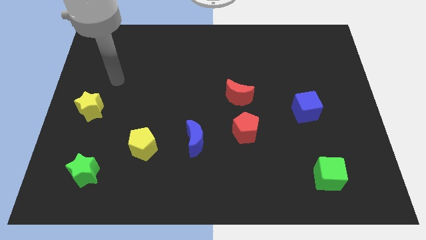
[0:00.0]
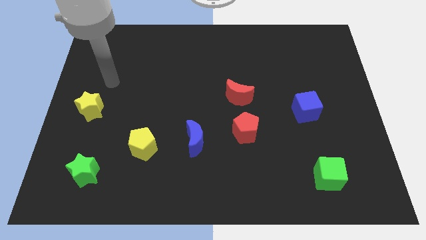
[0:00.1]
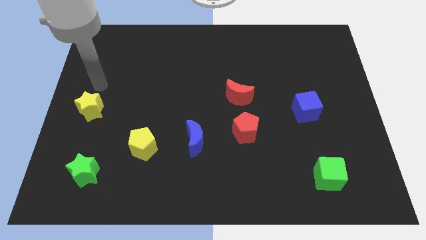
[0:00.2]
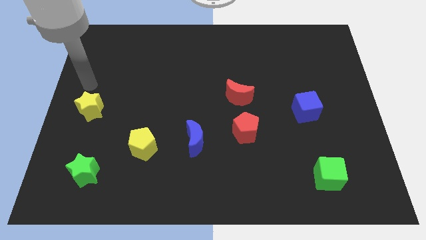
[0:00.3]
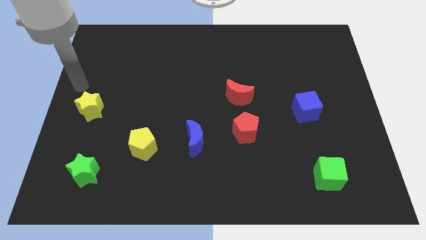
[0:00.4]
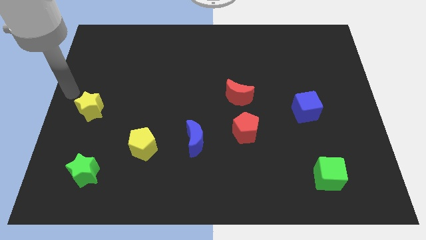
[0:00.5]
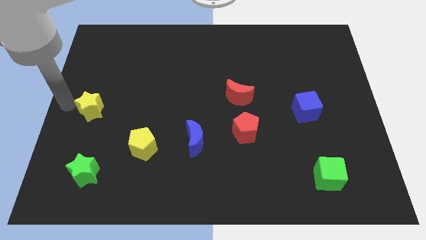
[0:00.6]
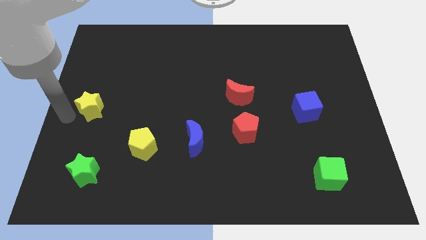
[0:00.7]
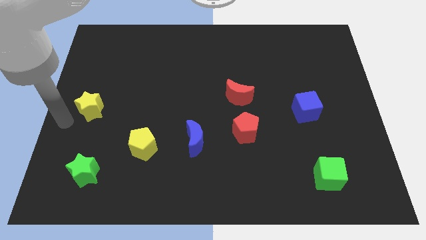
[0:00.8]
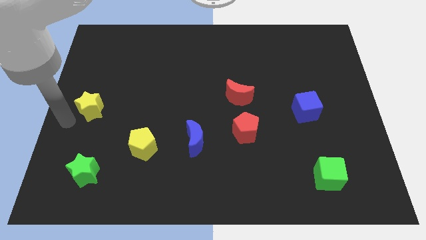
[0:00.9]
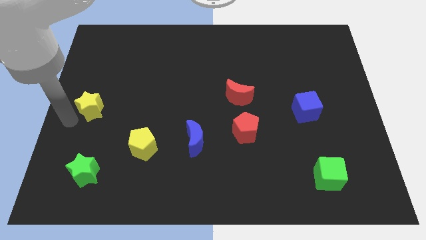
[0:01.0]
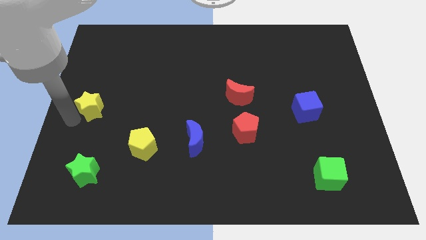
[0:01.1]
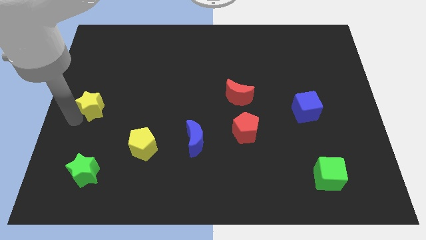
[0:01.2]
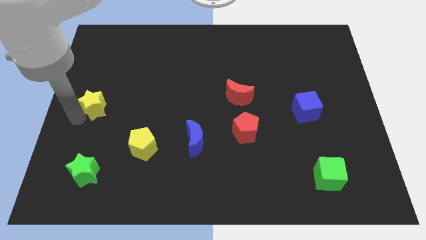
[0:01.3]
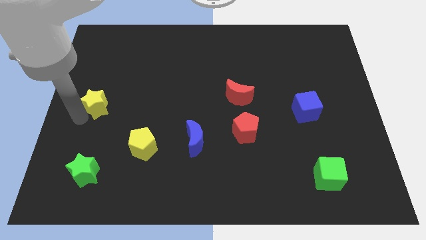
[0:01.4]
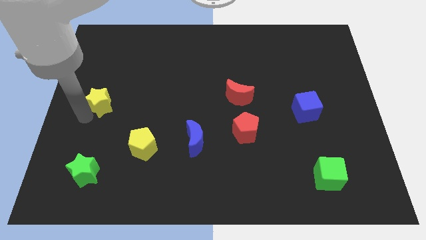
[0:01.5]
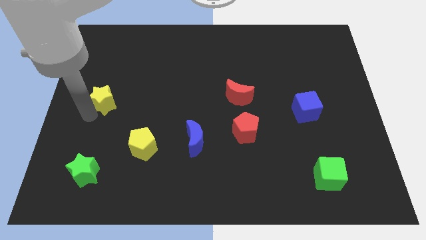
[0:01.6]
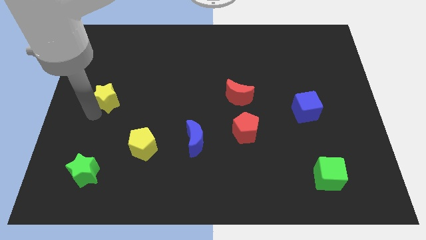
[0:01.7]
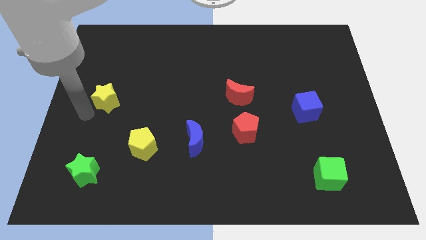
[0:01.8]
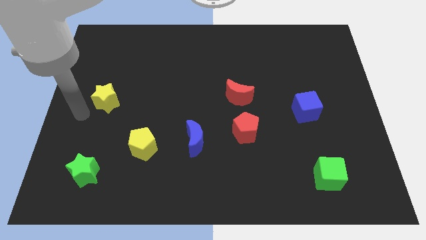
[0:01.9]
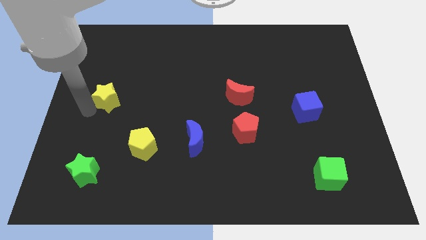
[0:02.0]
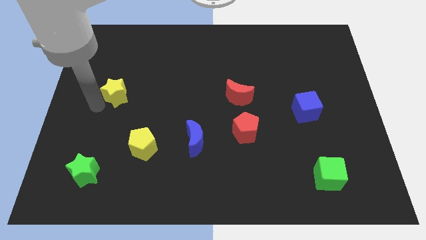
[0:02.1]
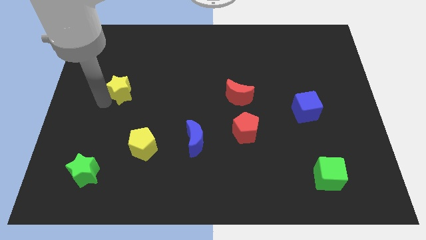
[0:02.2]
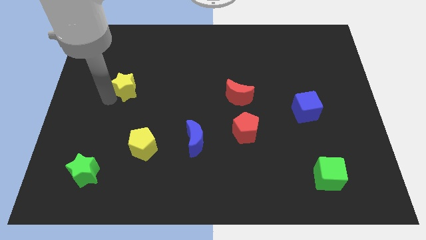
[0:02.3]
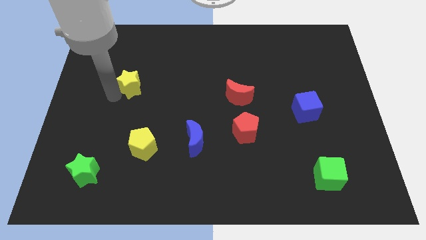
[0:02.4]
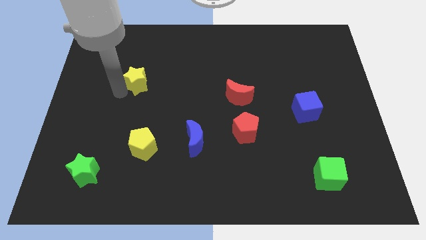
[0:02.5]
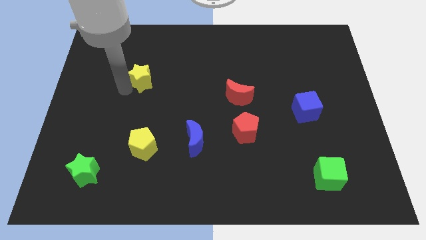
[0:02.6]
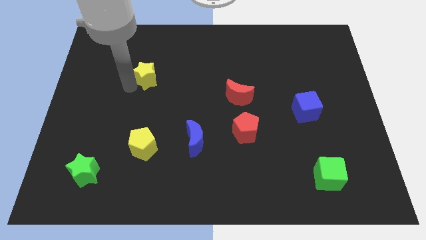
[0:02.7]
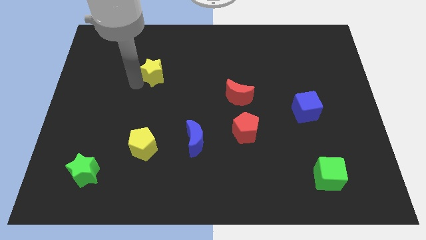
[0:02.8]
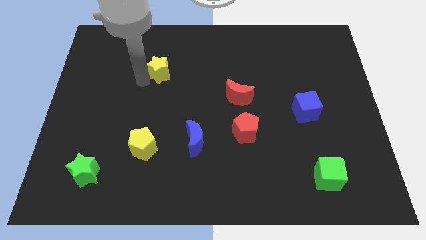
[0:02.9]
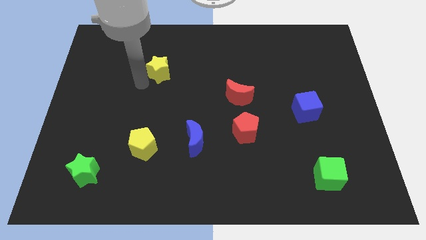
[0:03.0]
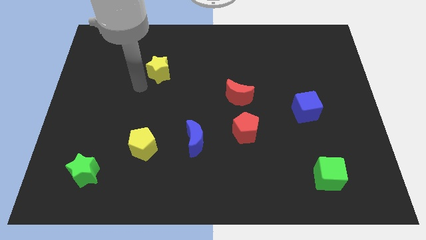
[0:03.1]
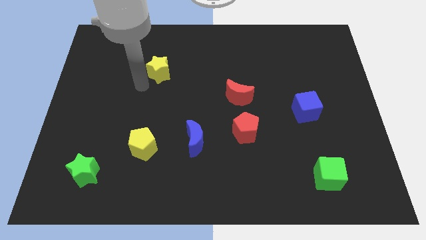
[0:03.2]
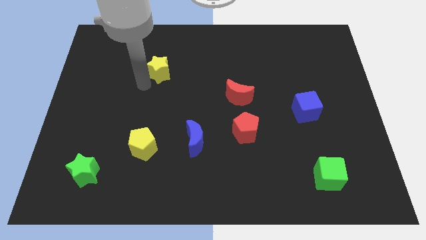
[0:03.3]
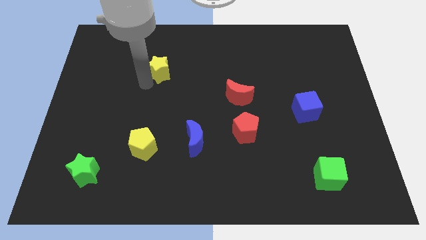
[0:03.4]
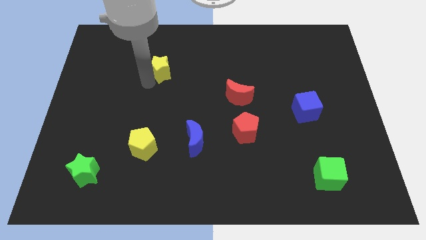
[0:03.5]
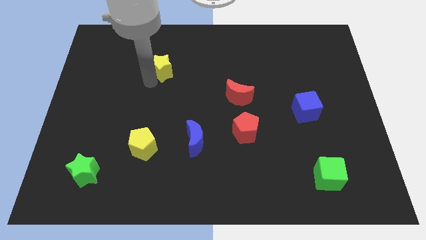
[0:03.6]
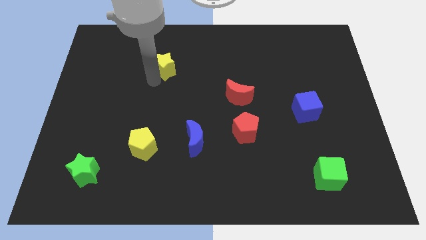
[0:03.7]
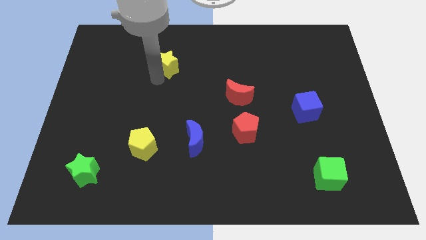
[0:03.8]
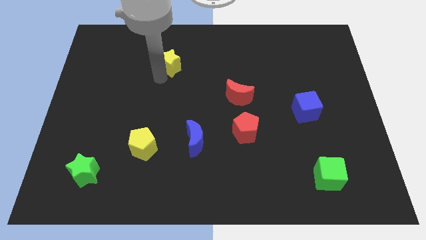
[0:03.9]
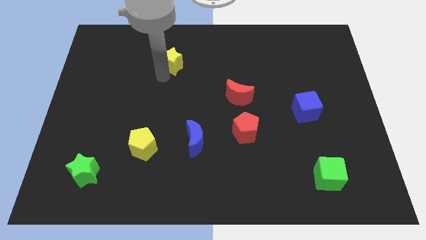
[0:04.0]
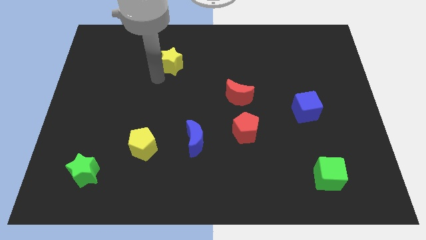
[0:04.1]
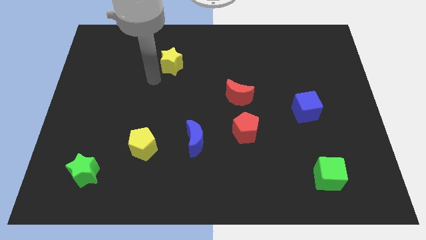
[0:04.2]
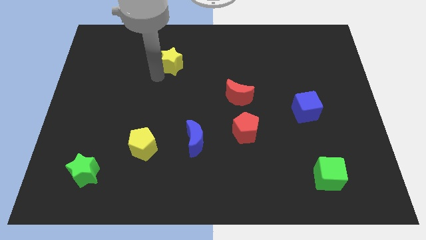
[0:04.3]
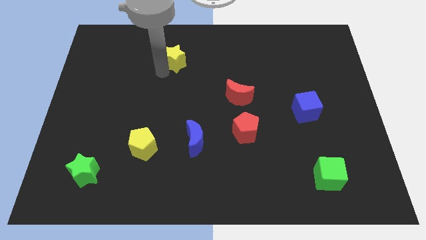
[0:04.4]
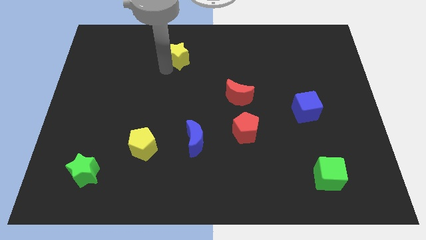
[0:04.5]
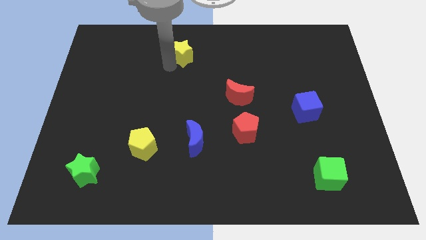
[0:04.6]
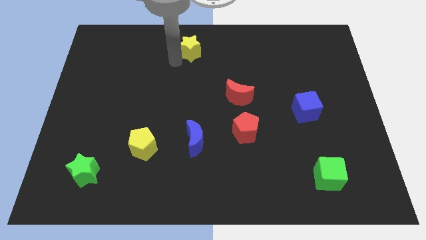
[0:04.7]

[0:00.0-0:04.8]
slide the yellow star to the towards your base

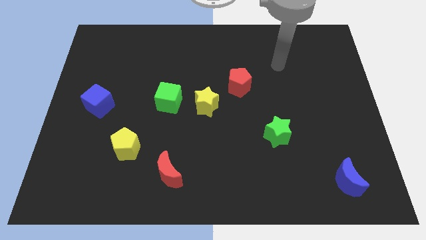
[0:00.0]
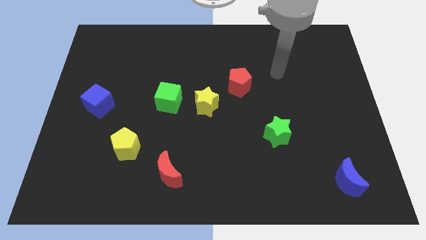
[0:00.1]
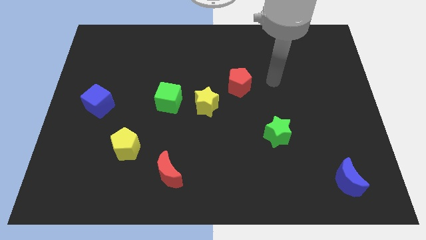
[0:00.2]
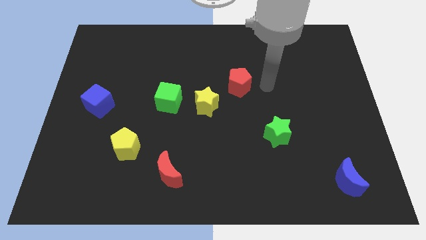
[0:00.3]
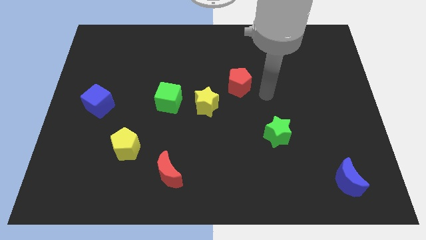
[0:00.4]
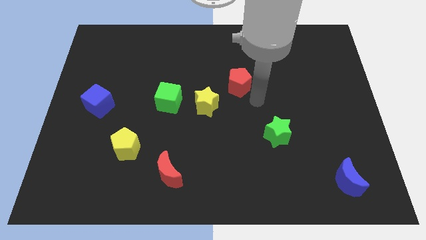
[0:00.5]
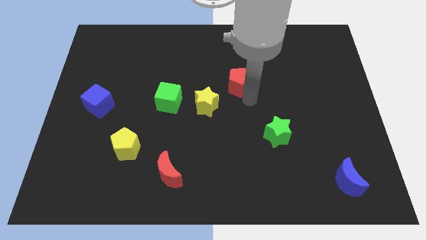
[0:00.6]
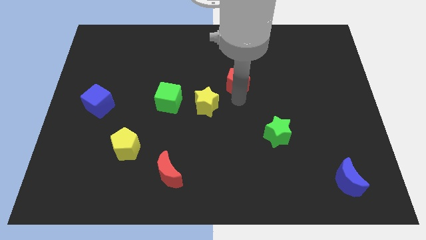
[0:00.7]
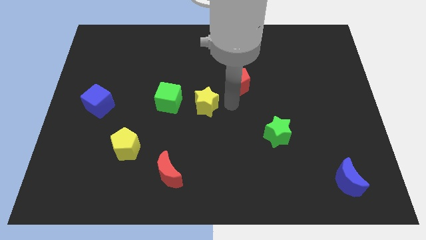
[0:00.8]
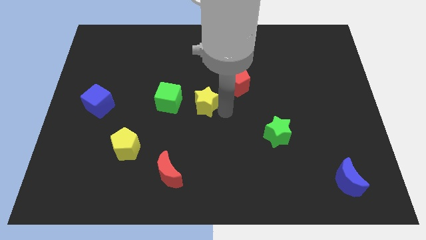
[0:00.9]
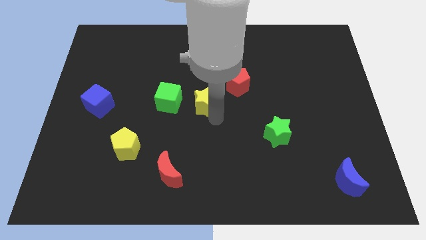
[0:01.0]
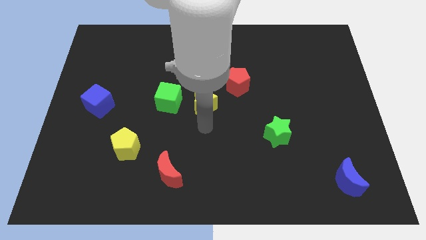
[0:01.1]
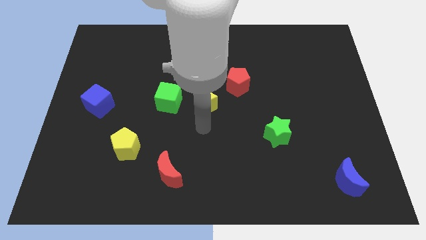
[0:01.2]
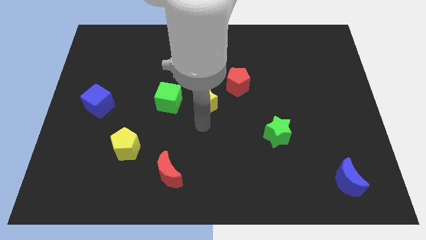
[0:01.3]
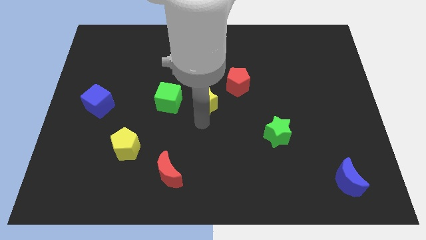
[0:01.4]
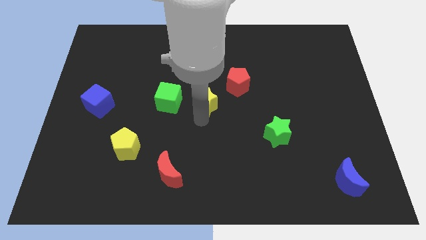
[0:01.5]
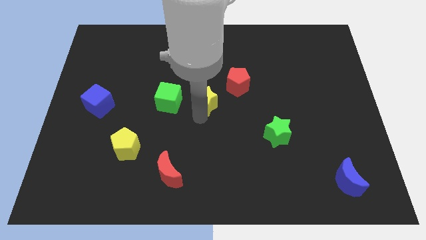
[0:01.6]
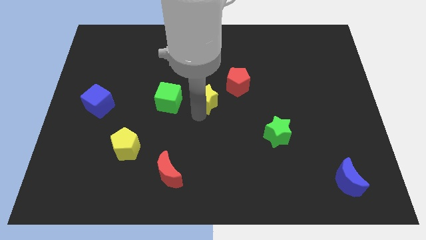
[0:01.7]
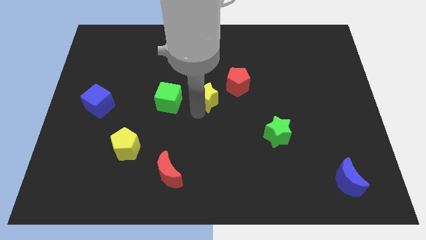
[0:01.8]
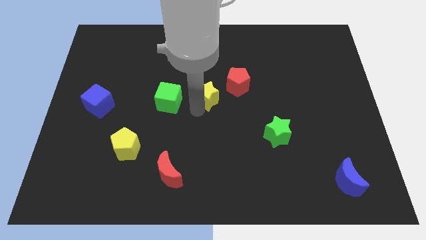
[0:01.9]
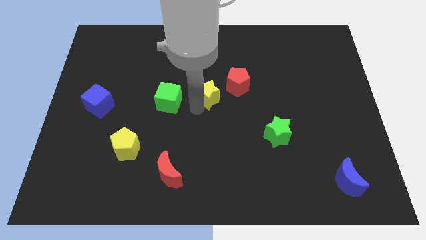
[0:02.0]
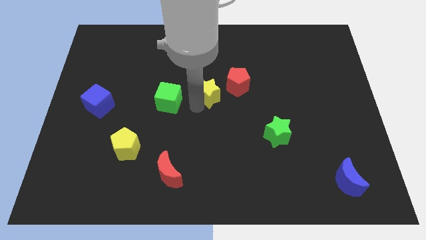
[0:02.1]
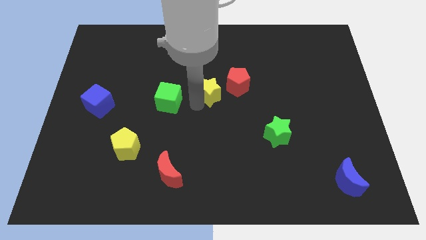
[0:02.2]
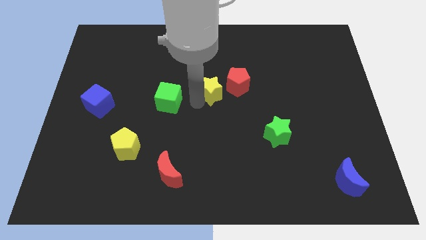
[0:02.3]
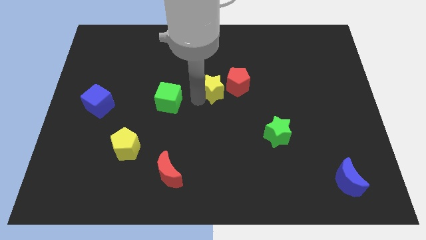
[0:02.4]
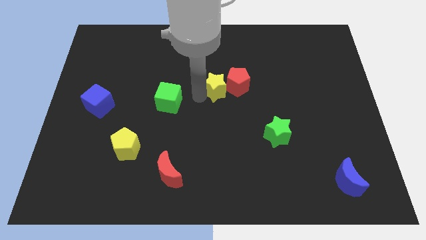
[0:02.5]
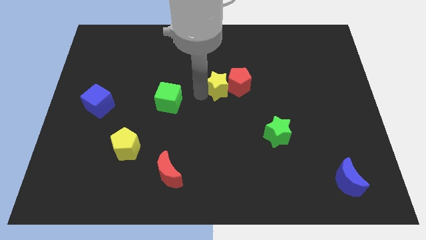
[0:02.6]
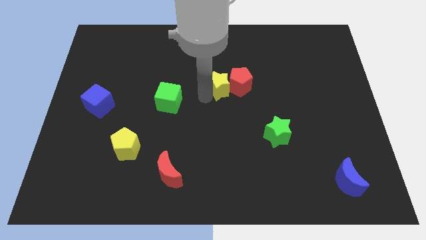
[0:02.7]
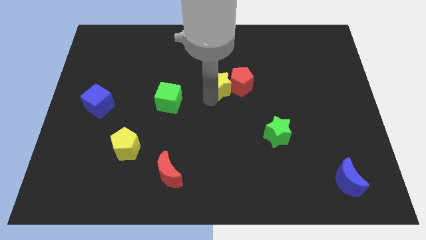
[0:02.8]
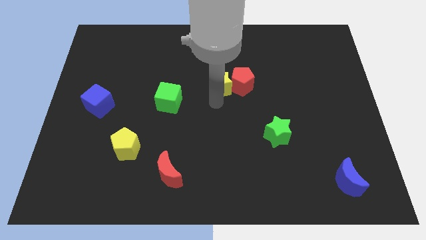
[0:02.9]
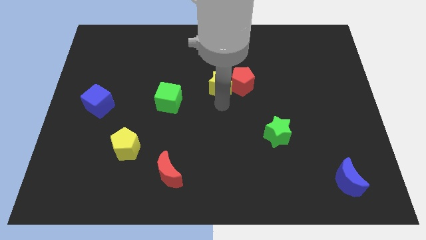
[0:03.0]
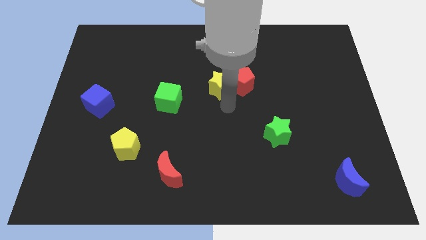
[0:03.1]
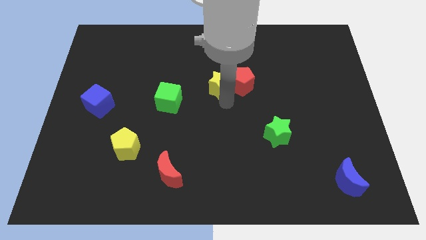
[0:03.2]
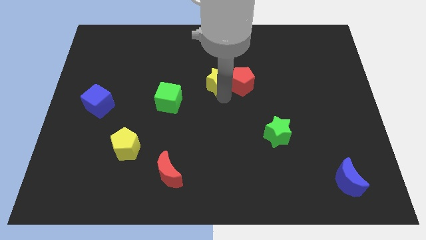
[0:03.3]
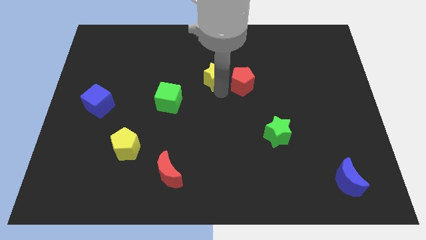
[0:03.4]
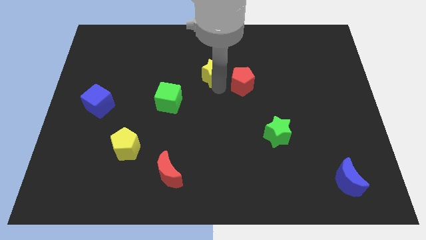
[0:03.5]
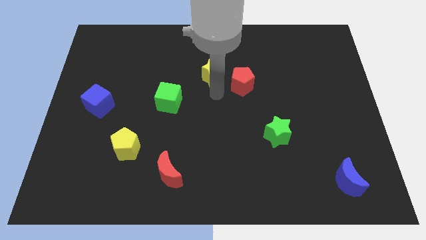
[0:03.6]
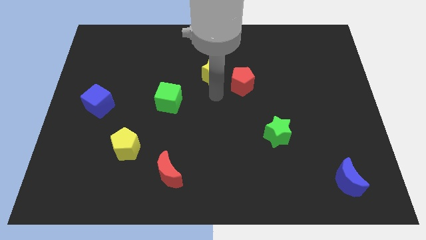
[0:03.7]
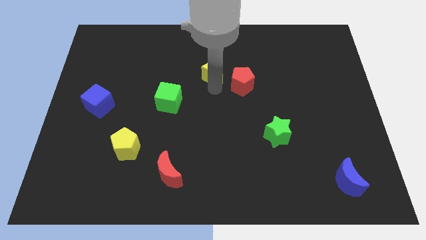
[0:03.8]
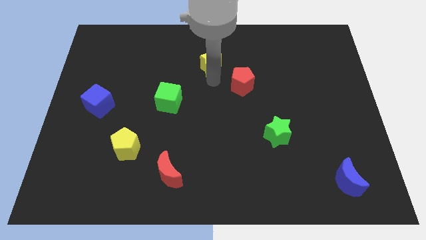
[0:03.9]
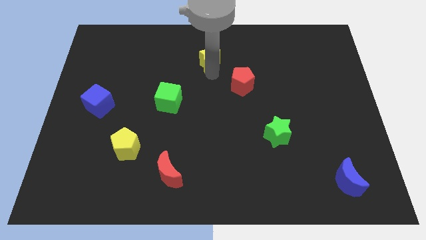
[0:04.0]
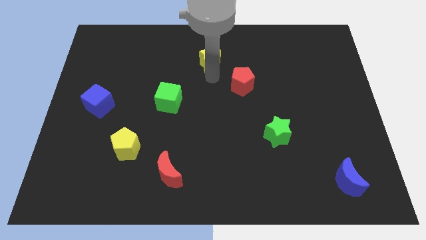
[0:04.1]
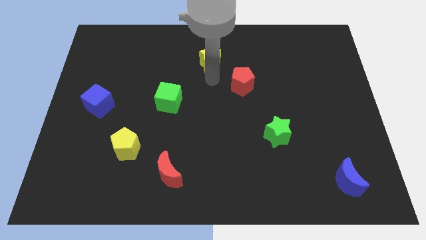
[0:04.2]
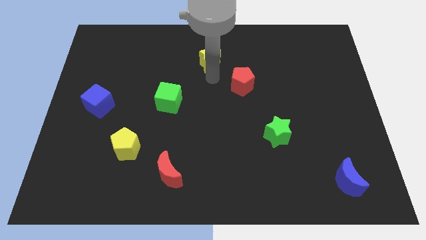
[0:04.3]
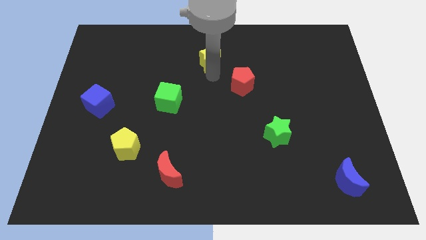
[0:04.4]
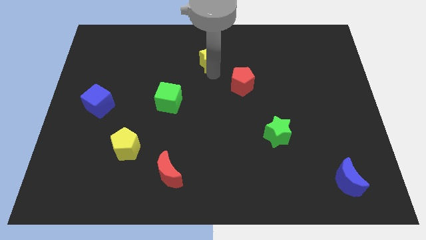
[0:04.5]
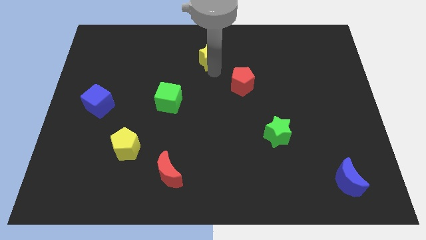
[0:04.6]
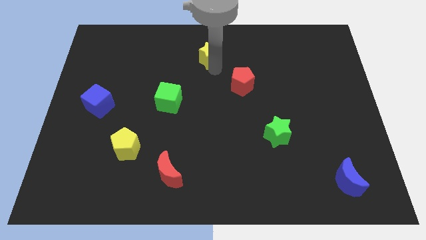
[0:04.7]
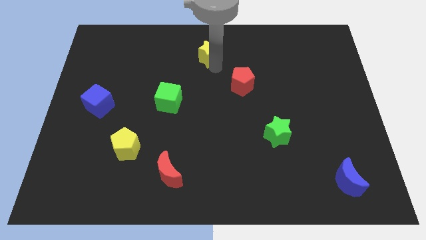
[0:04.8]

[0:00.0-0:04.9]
slide the yellow star to the top
